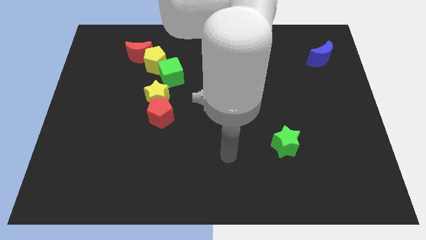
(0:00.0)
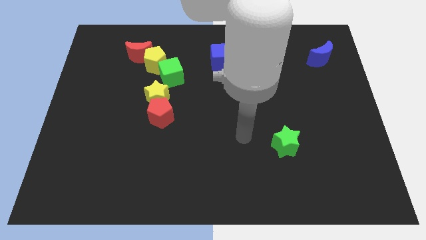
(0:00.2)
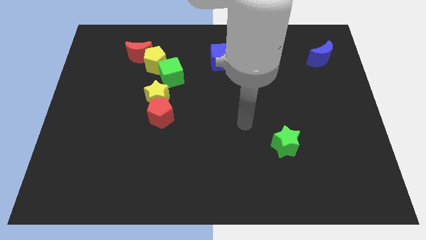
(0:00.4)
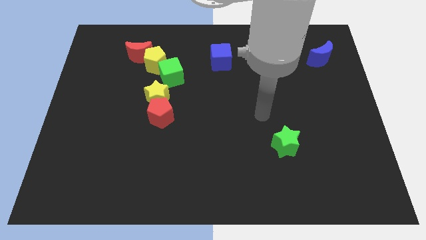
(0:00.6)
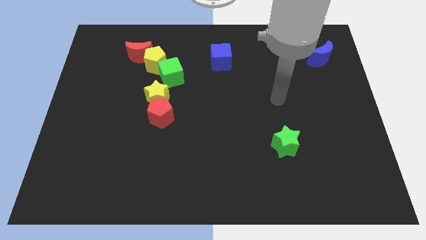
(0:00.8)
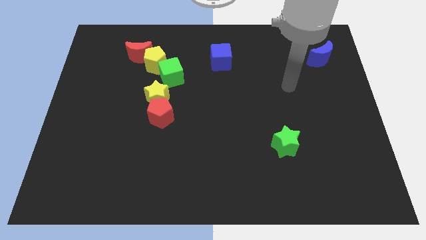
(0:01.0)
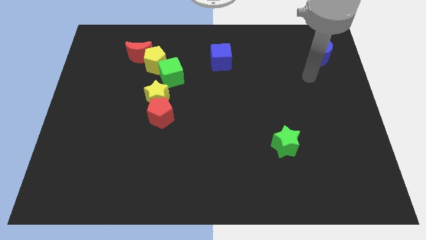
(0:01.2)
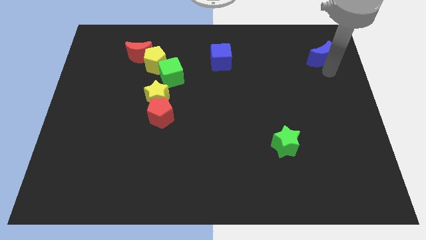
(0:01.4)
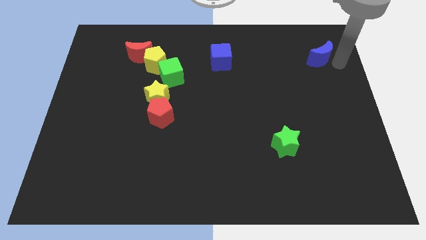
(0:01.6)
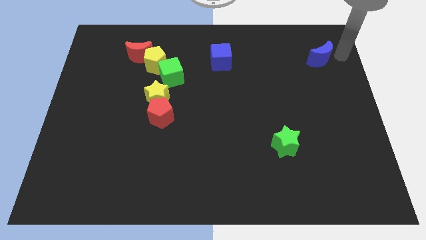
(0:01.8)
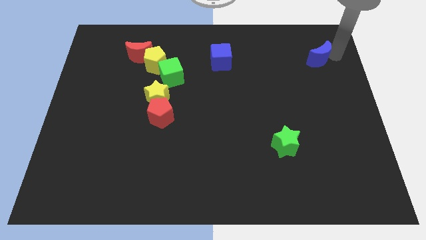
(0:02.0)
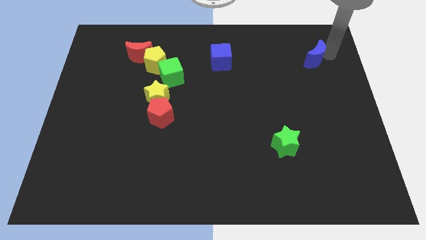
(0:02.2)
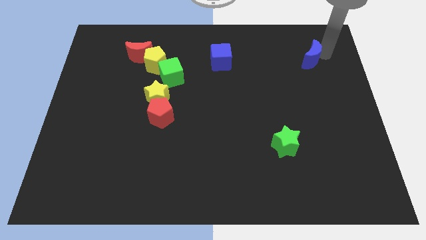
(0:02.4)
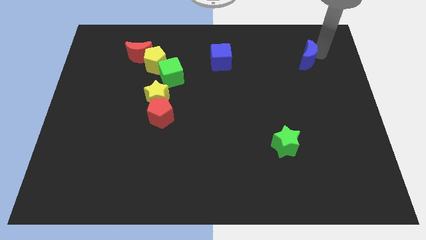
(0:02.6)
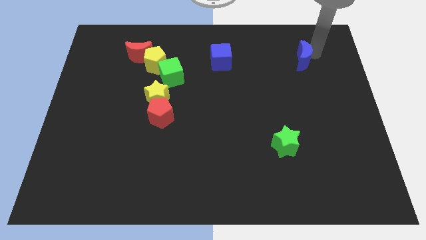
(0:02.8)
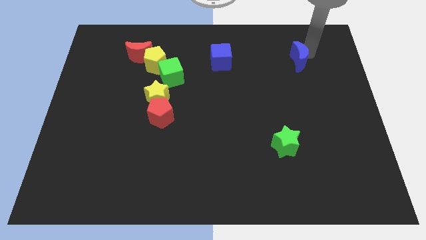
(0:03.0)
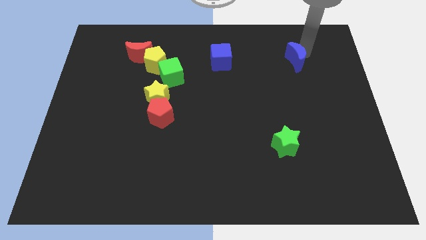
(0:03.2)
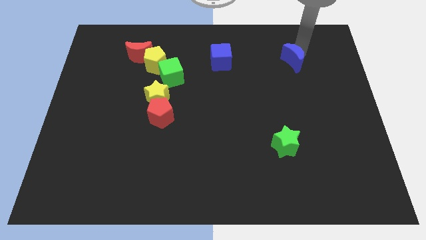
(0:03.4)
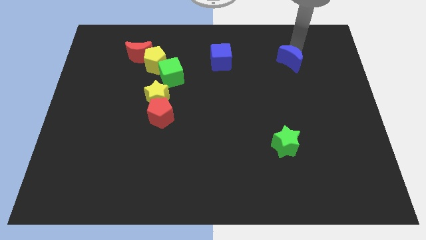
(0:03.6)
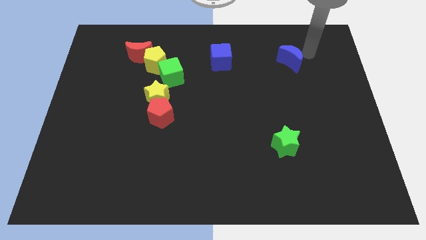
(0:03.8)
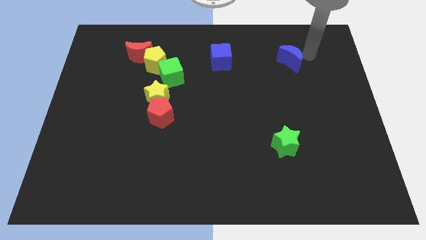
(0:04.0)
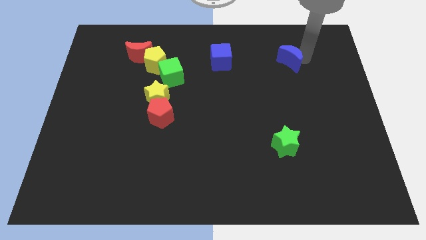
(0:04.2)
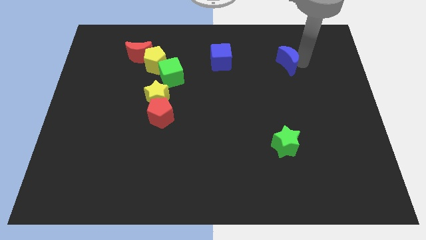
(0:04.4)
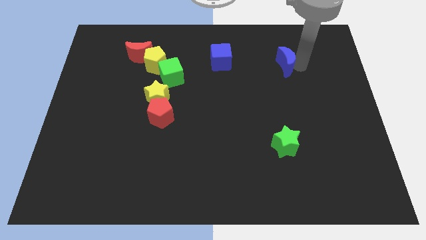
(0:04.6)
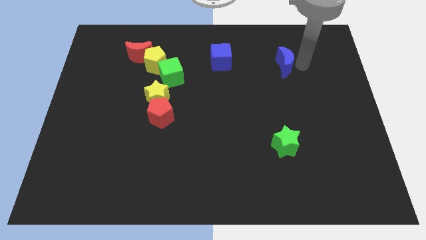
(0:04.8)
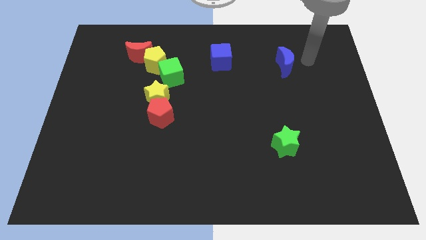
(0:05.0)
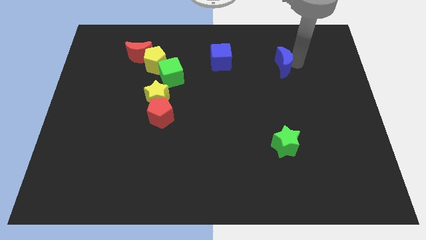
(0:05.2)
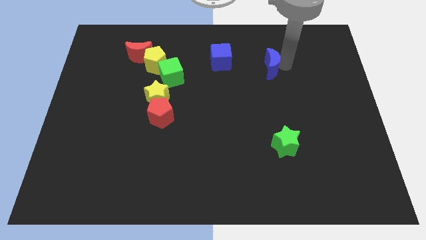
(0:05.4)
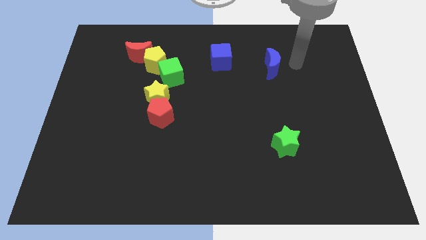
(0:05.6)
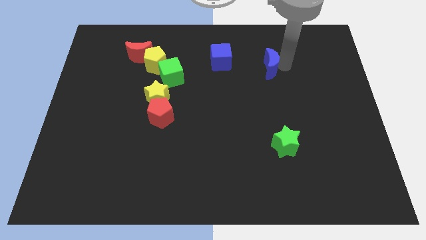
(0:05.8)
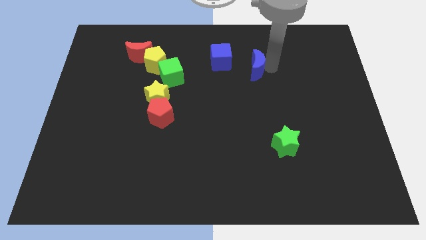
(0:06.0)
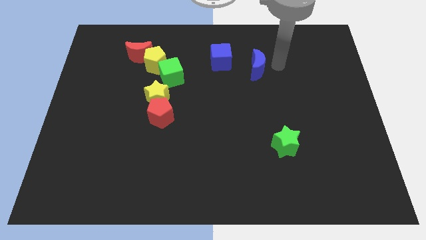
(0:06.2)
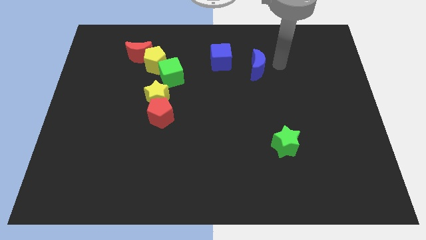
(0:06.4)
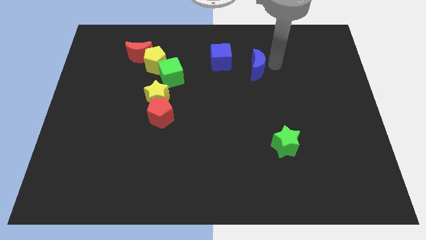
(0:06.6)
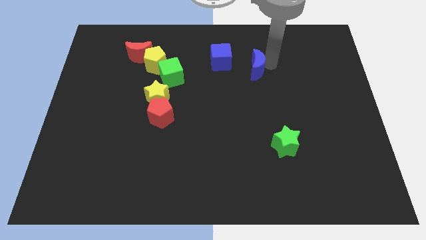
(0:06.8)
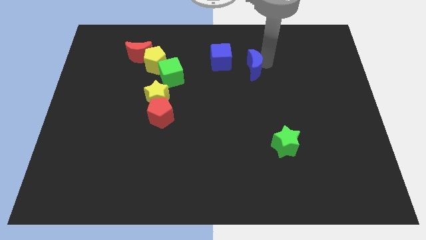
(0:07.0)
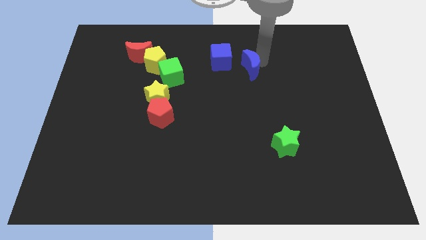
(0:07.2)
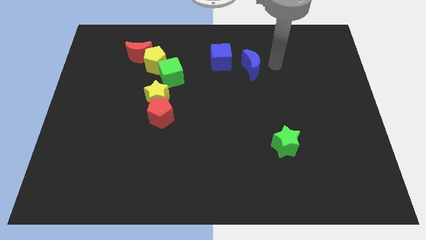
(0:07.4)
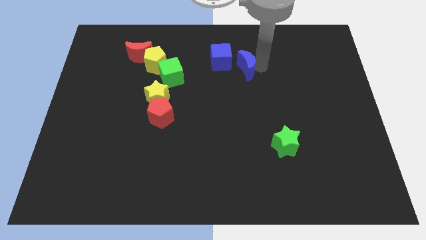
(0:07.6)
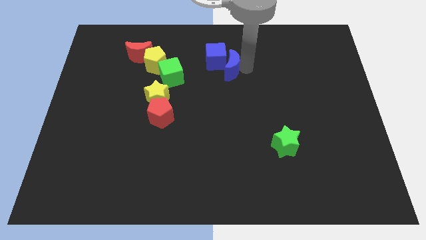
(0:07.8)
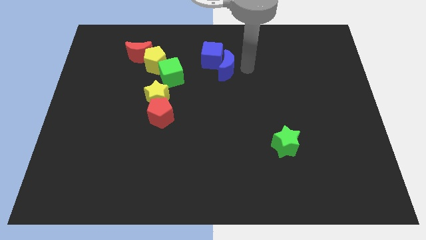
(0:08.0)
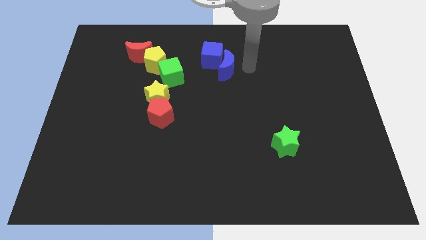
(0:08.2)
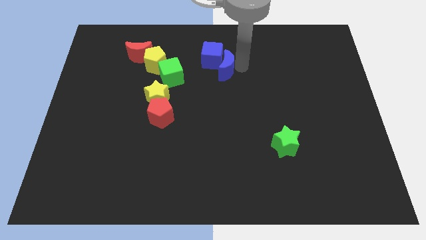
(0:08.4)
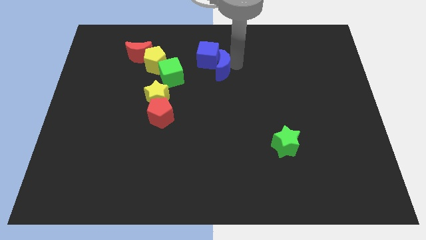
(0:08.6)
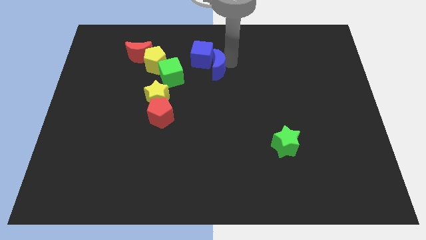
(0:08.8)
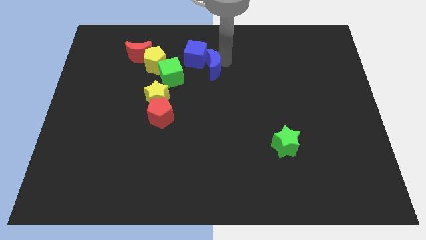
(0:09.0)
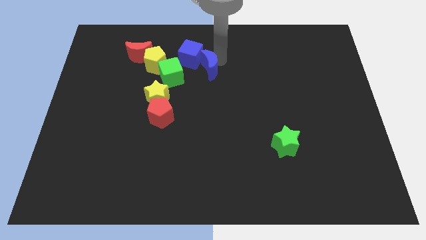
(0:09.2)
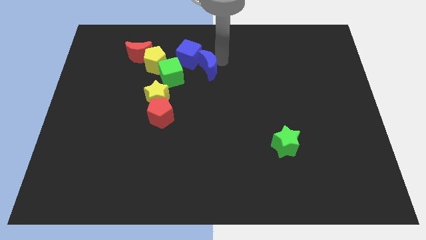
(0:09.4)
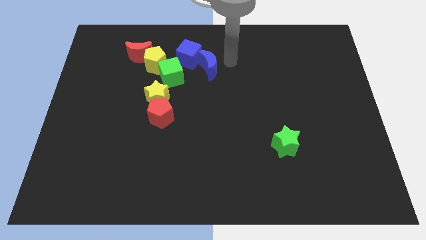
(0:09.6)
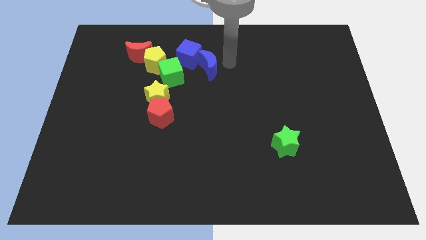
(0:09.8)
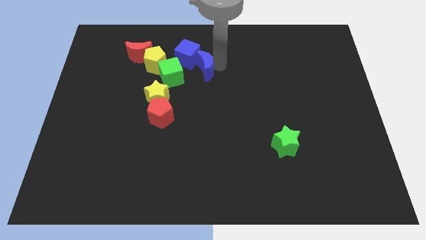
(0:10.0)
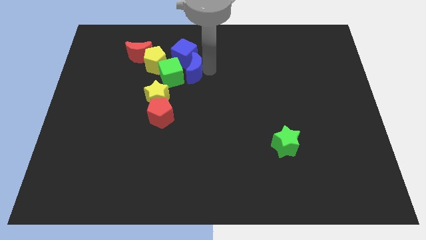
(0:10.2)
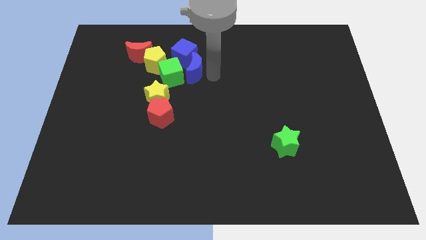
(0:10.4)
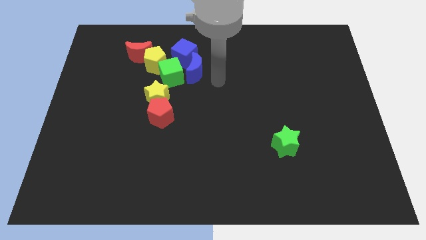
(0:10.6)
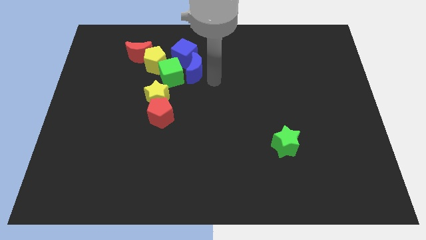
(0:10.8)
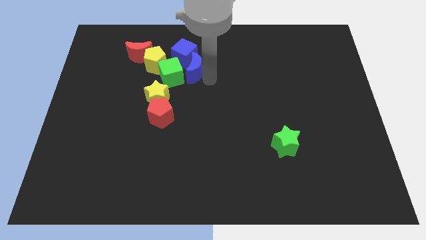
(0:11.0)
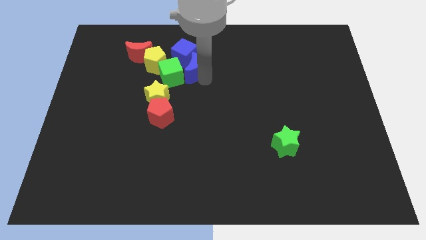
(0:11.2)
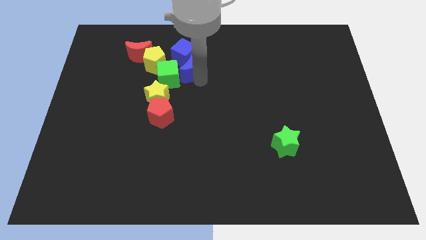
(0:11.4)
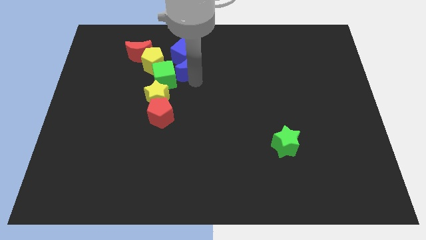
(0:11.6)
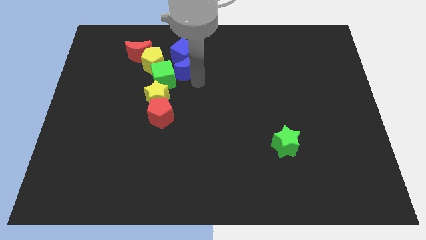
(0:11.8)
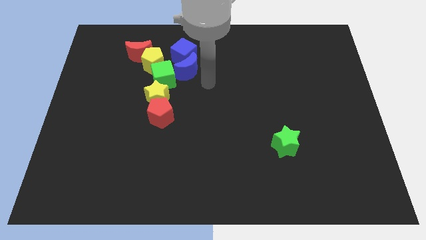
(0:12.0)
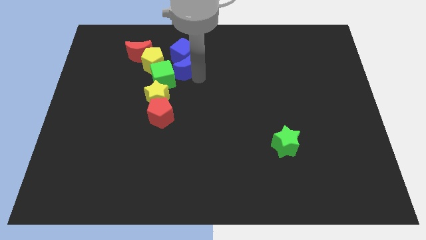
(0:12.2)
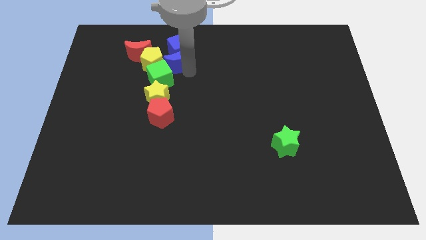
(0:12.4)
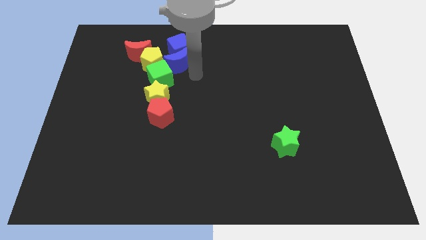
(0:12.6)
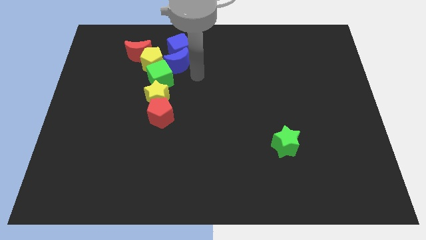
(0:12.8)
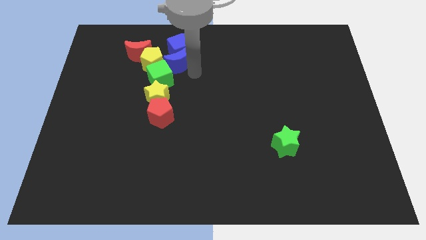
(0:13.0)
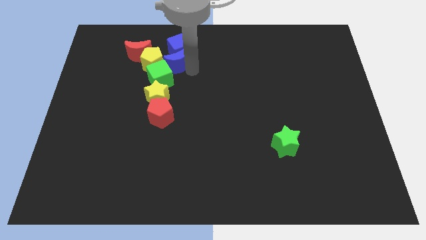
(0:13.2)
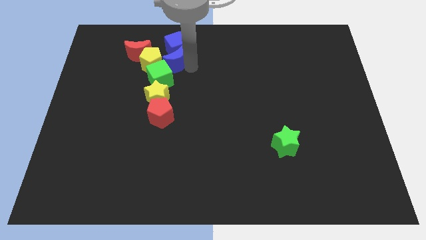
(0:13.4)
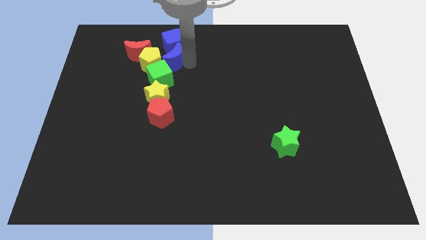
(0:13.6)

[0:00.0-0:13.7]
move the blue moon towards the yellow pentagon
